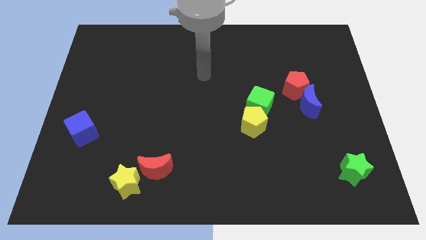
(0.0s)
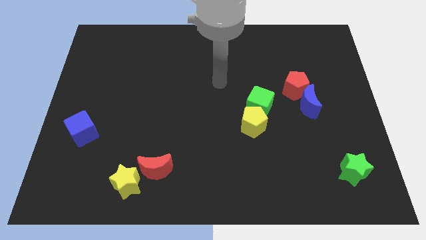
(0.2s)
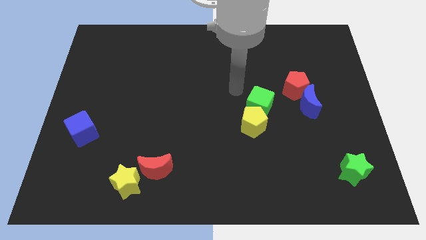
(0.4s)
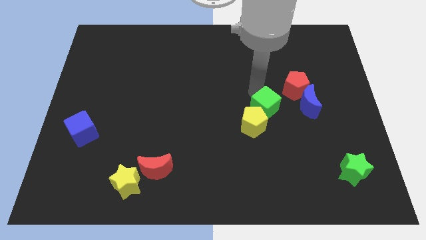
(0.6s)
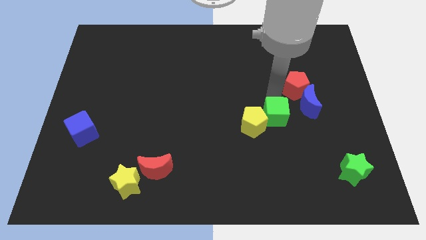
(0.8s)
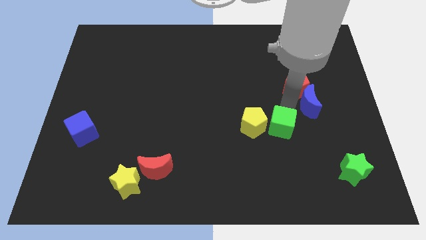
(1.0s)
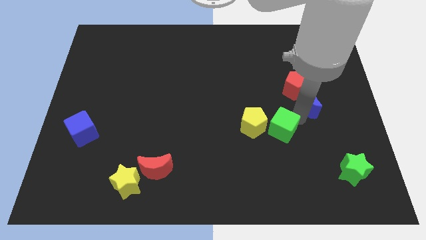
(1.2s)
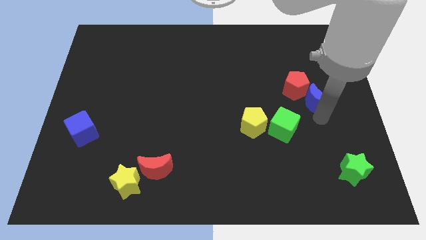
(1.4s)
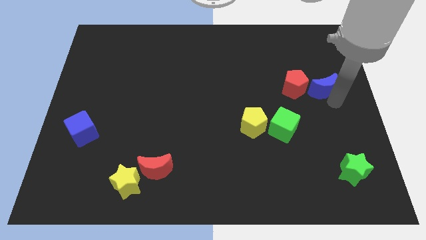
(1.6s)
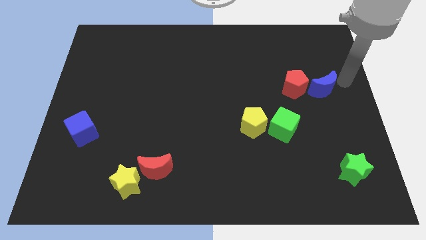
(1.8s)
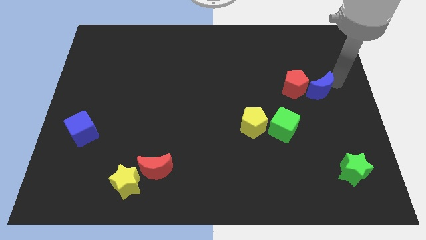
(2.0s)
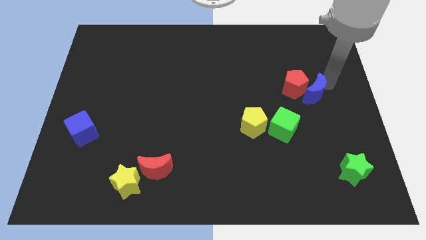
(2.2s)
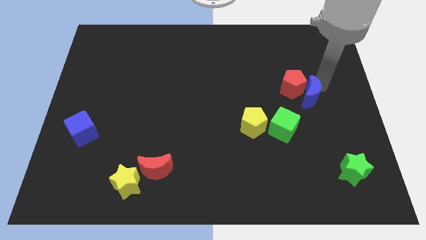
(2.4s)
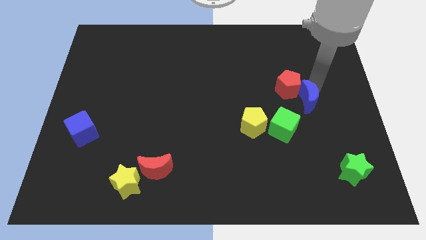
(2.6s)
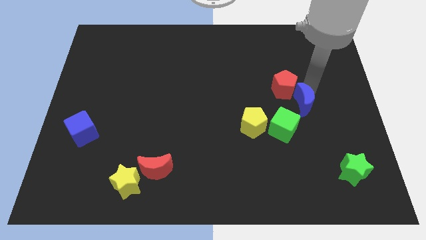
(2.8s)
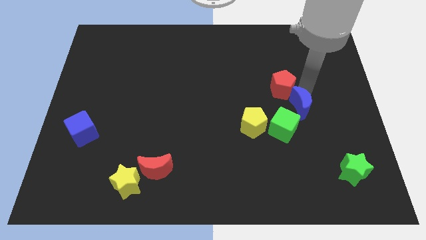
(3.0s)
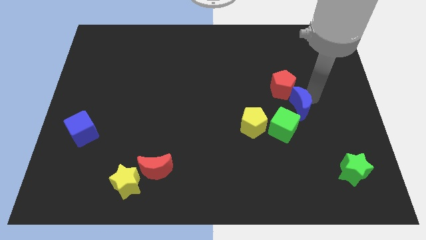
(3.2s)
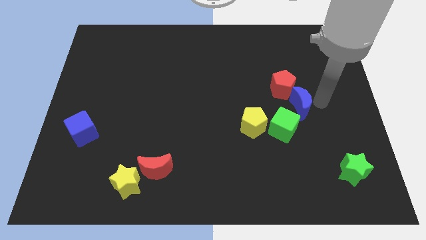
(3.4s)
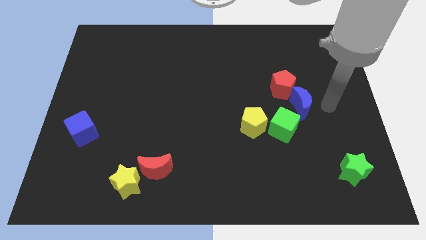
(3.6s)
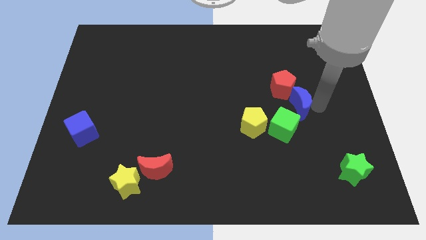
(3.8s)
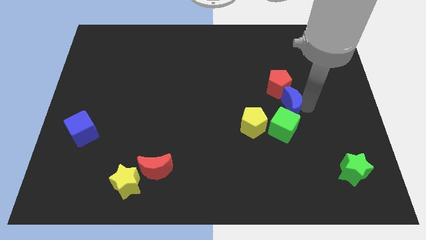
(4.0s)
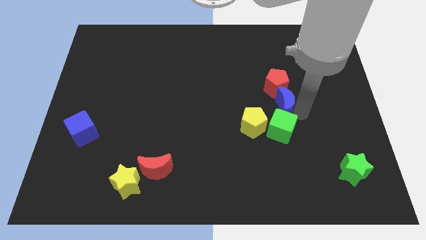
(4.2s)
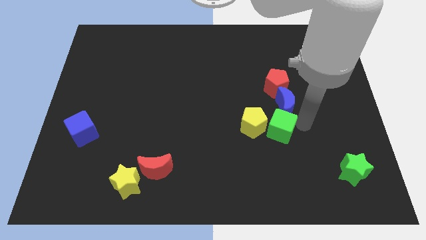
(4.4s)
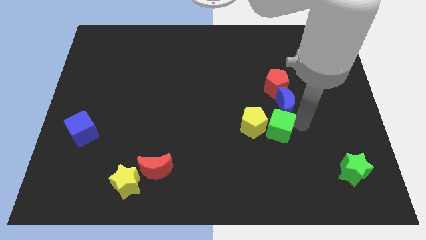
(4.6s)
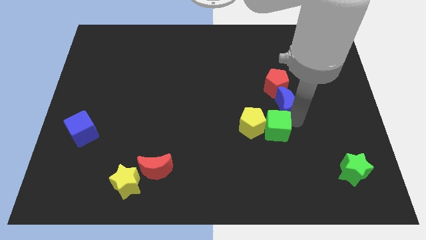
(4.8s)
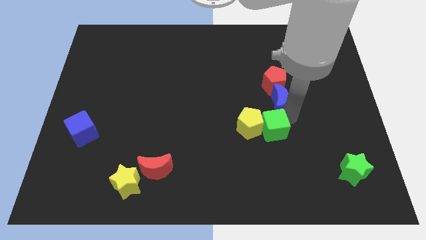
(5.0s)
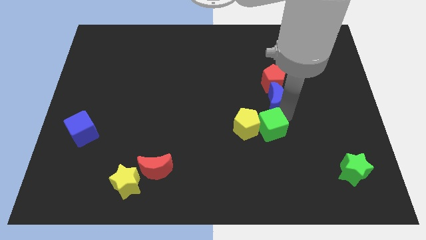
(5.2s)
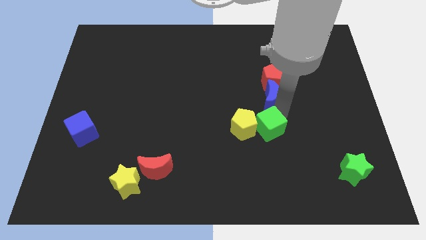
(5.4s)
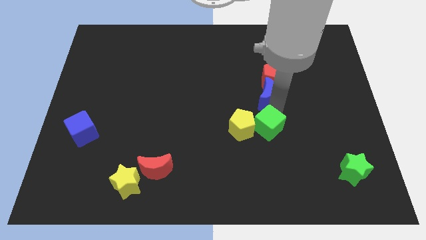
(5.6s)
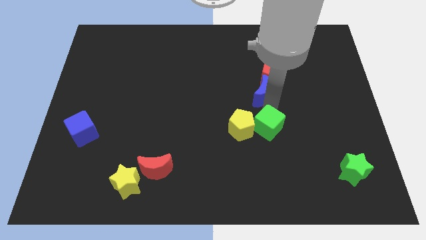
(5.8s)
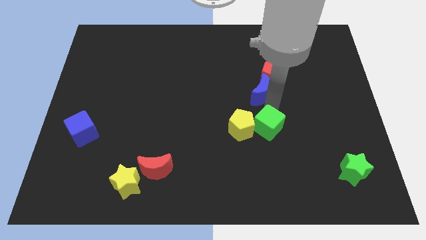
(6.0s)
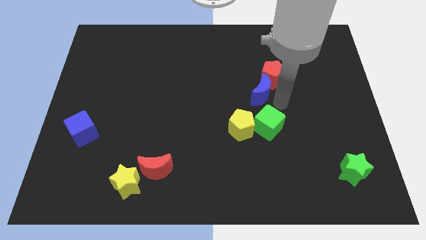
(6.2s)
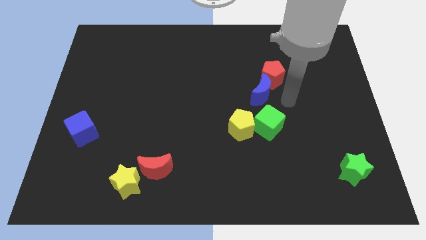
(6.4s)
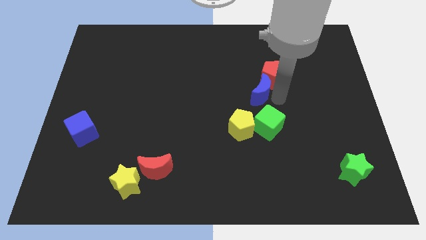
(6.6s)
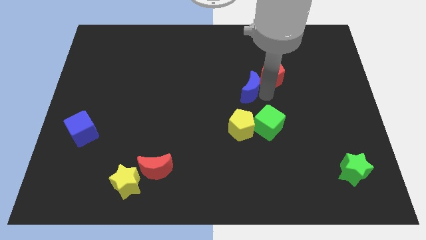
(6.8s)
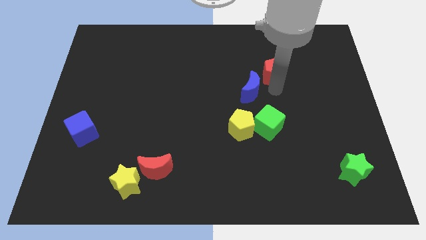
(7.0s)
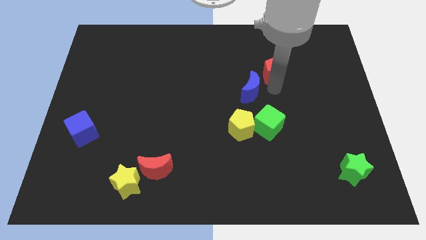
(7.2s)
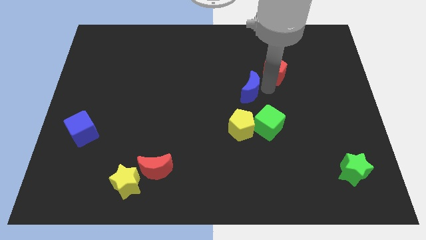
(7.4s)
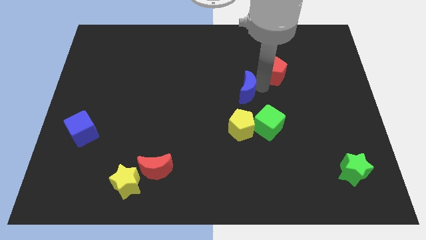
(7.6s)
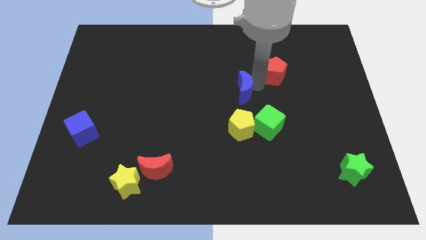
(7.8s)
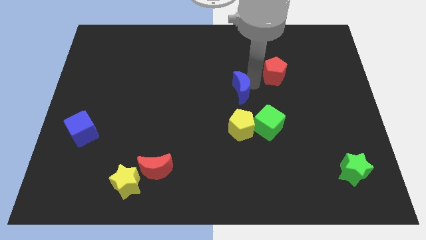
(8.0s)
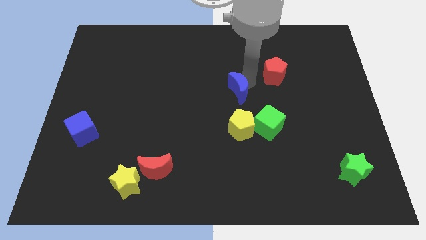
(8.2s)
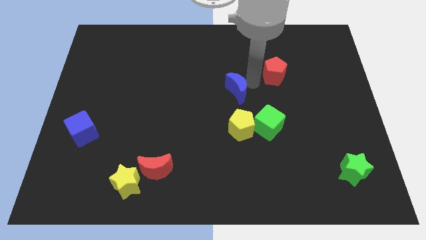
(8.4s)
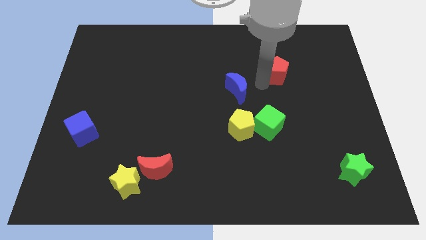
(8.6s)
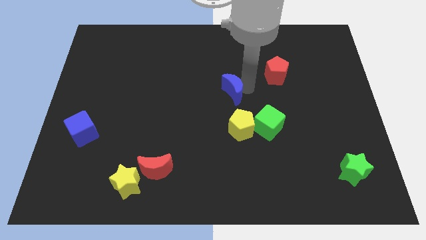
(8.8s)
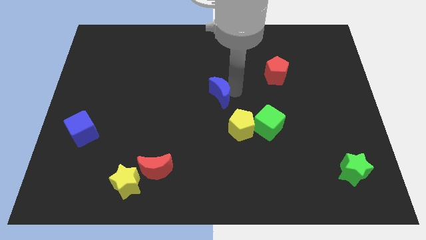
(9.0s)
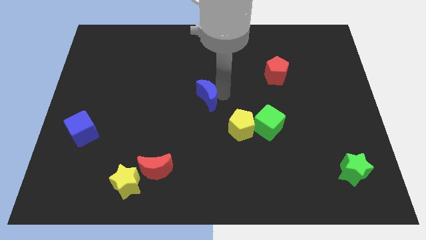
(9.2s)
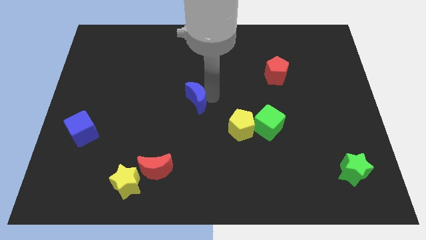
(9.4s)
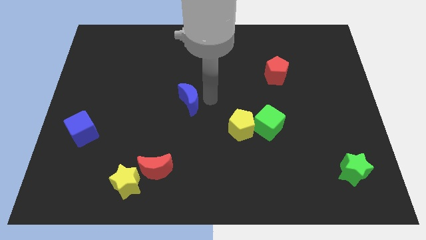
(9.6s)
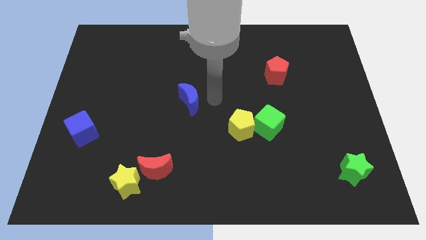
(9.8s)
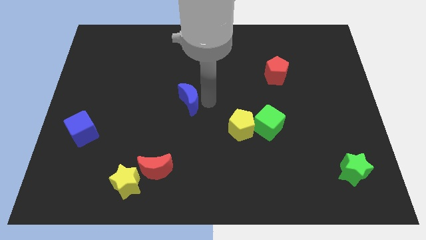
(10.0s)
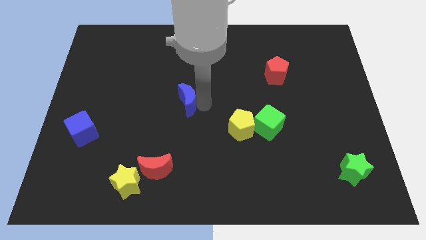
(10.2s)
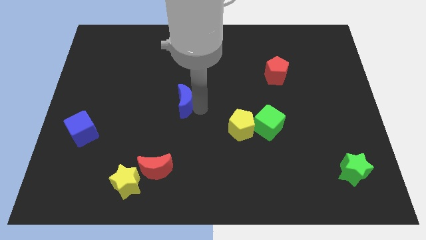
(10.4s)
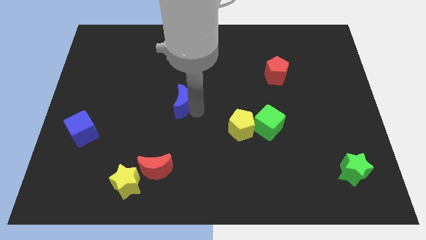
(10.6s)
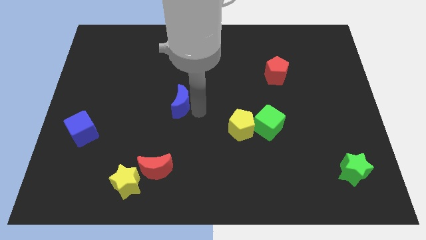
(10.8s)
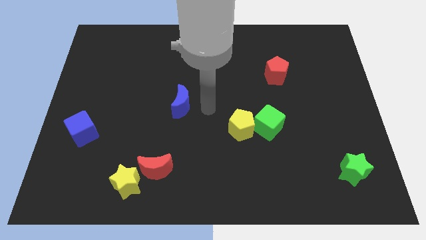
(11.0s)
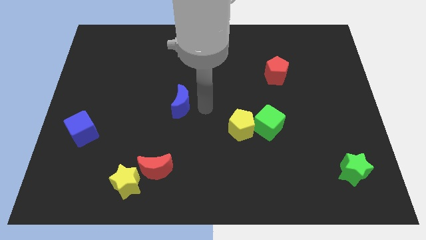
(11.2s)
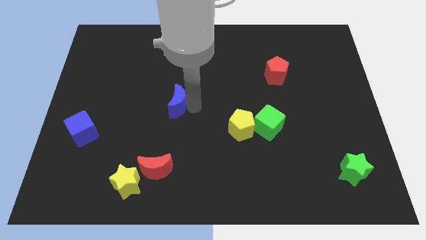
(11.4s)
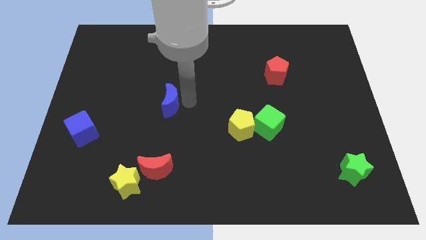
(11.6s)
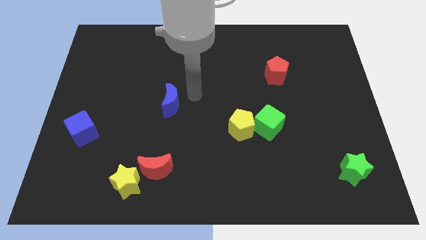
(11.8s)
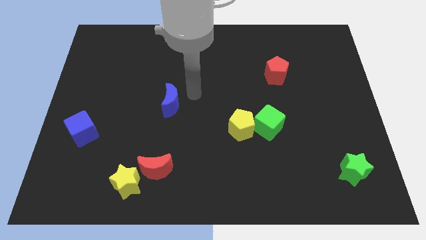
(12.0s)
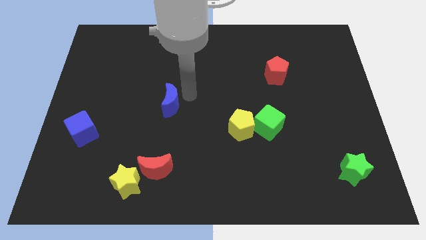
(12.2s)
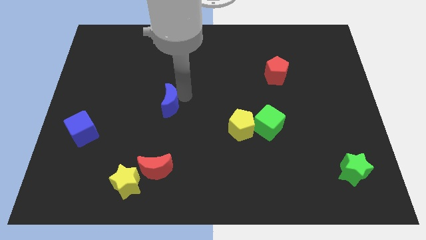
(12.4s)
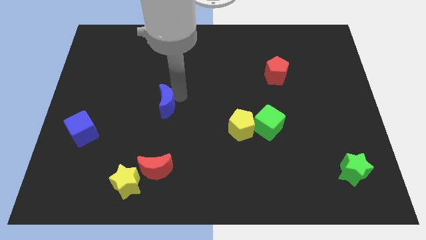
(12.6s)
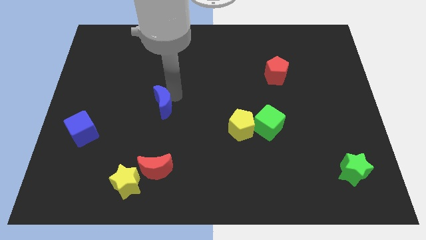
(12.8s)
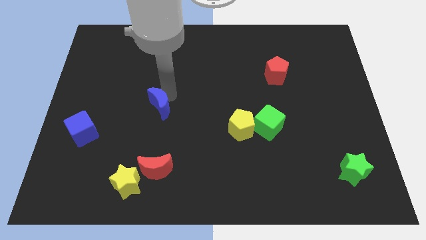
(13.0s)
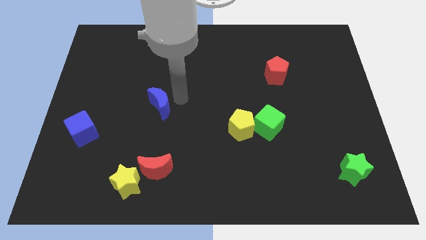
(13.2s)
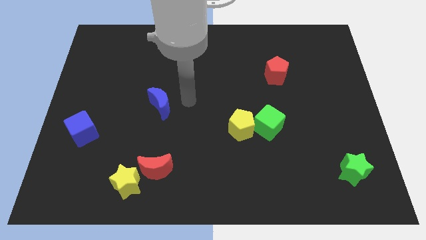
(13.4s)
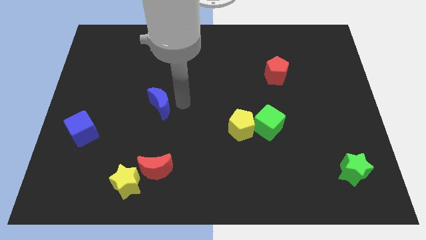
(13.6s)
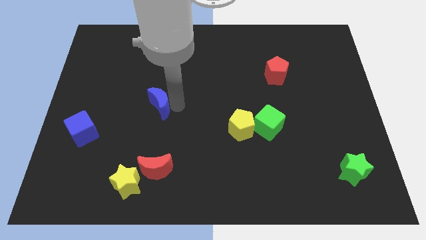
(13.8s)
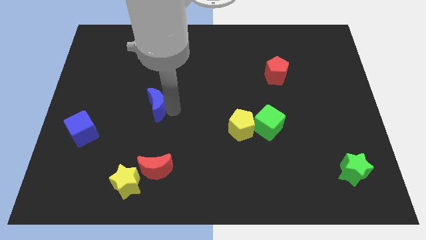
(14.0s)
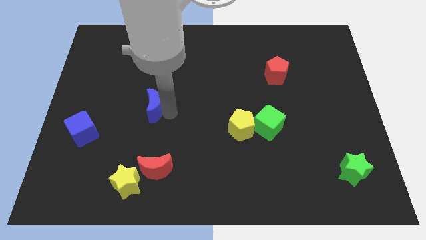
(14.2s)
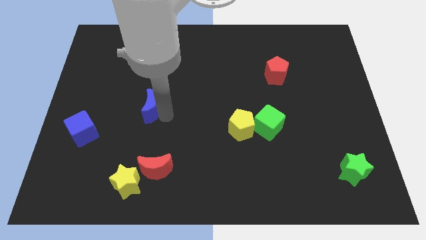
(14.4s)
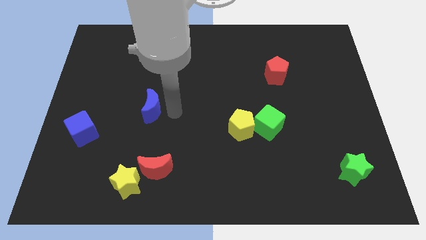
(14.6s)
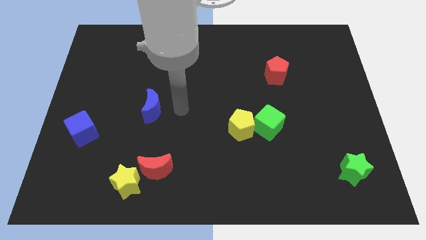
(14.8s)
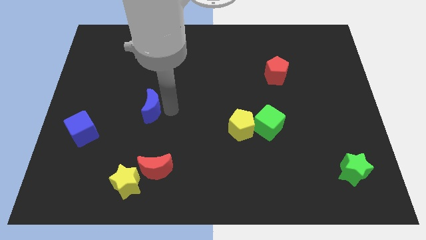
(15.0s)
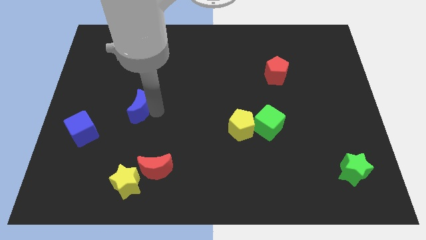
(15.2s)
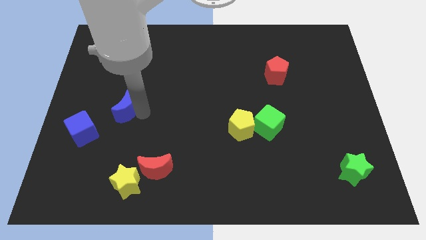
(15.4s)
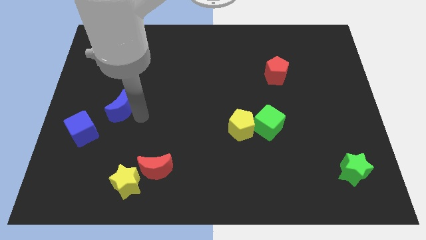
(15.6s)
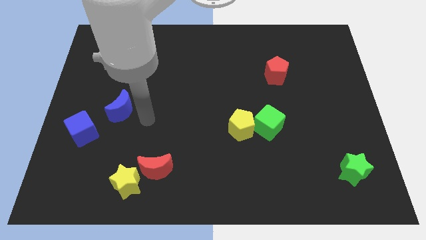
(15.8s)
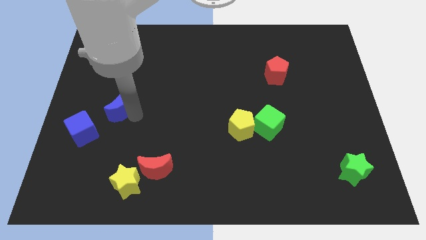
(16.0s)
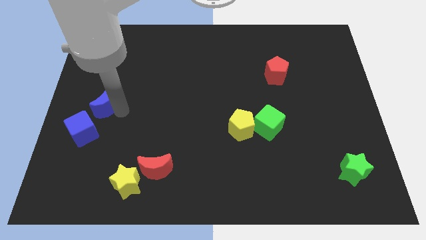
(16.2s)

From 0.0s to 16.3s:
push the blue moon to the center left
